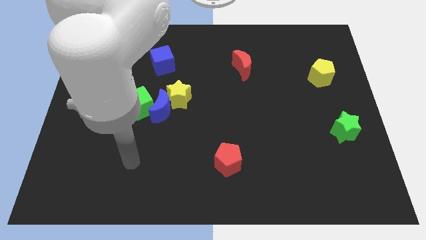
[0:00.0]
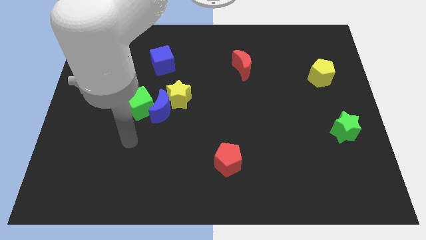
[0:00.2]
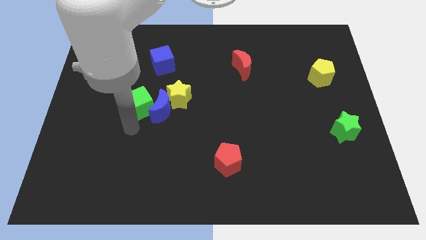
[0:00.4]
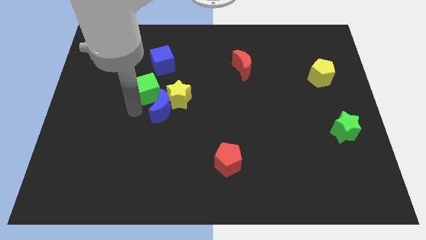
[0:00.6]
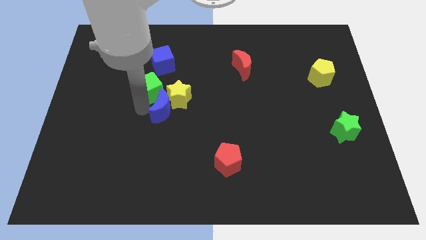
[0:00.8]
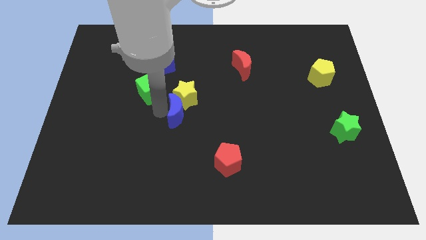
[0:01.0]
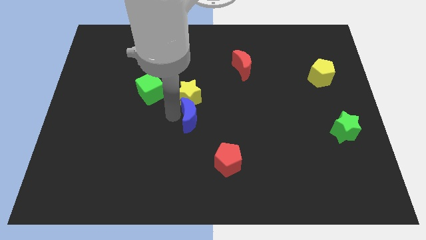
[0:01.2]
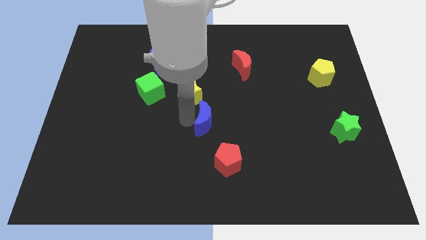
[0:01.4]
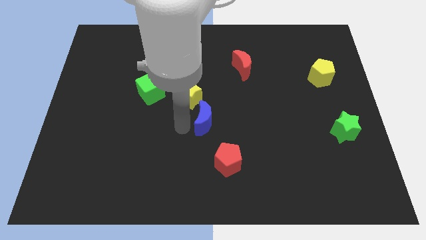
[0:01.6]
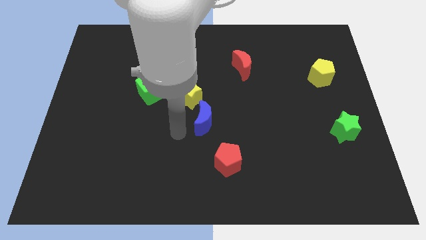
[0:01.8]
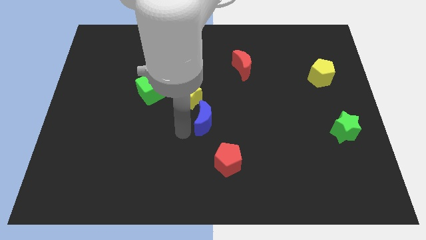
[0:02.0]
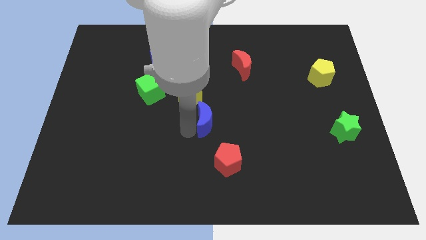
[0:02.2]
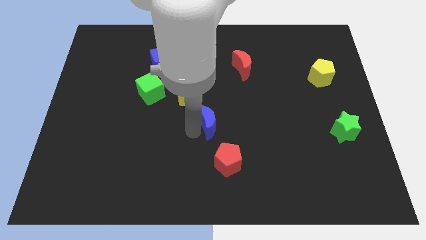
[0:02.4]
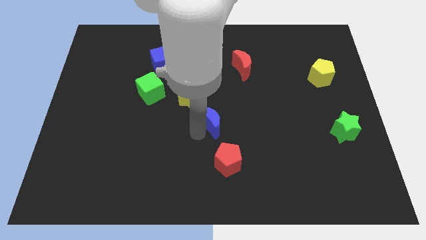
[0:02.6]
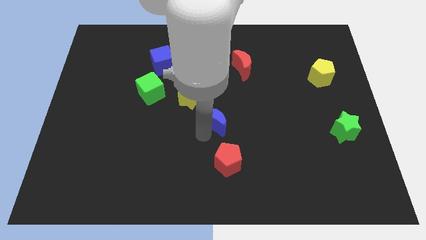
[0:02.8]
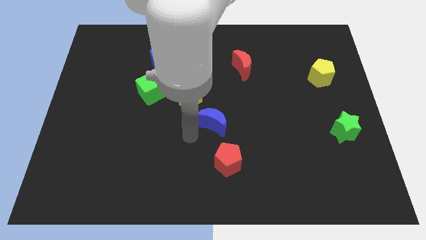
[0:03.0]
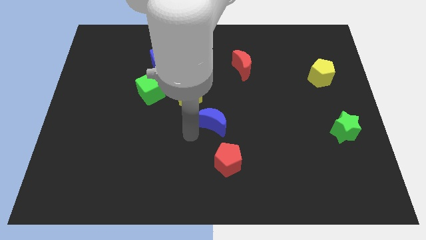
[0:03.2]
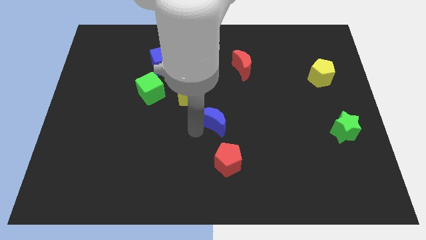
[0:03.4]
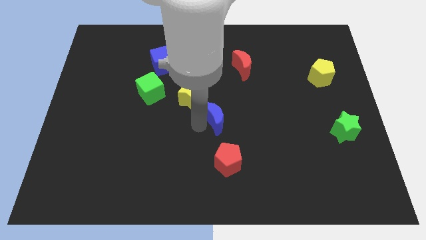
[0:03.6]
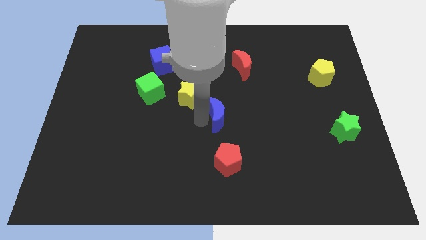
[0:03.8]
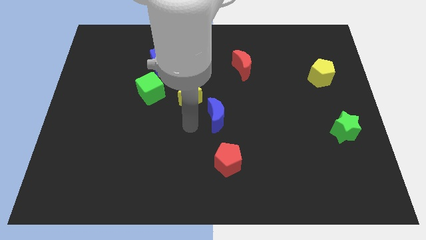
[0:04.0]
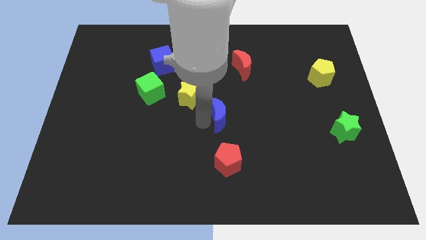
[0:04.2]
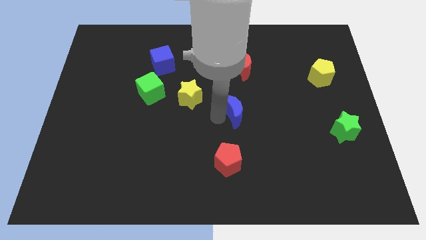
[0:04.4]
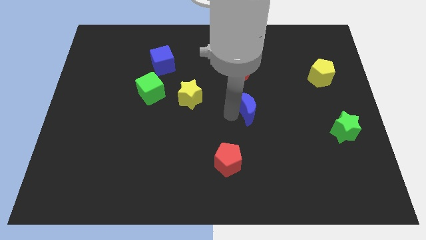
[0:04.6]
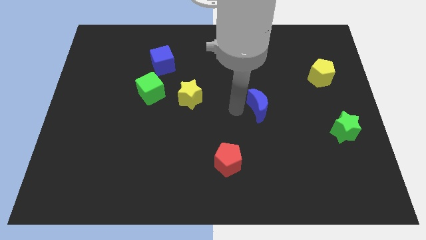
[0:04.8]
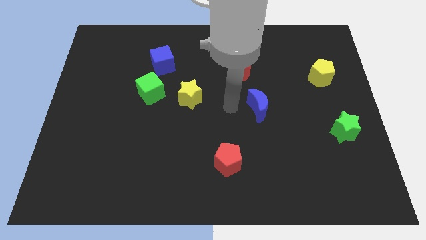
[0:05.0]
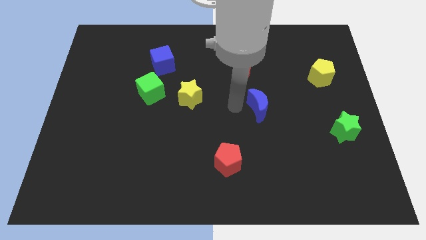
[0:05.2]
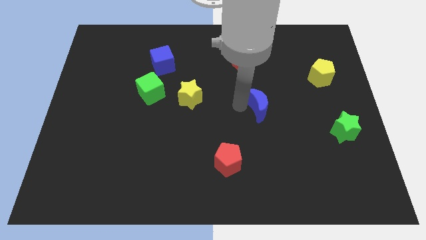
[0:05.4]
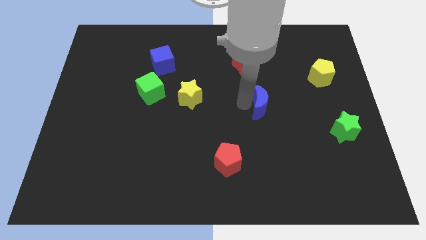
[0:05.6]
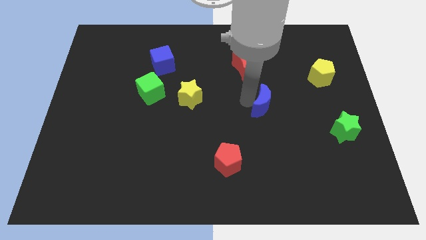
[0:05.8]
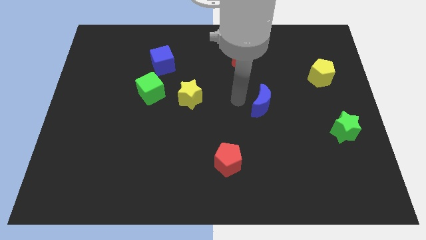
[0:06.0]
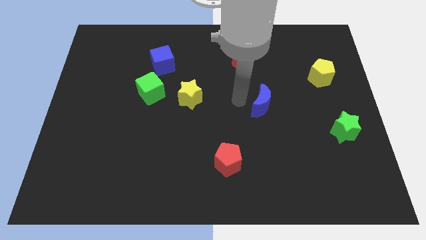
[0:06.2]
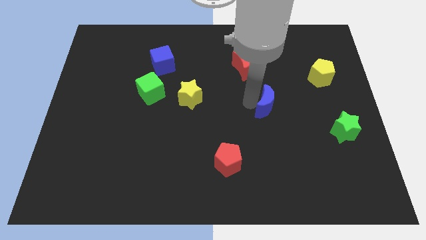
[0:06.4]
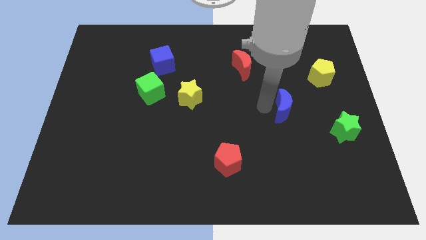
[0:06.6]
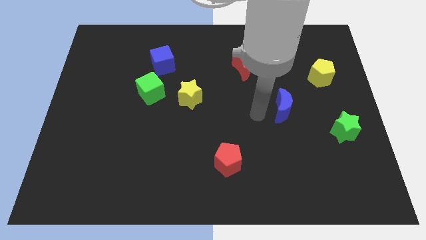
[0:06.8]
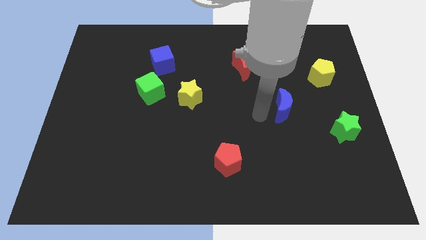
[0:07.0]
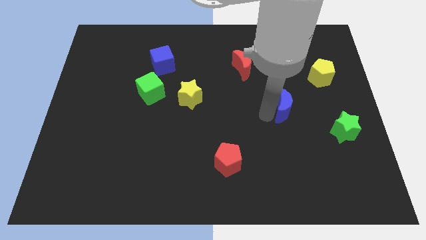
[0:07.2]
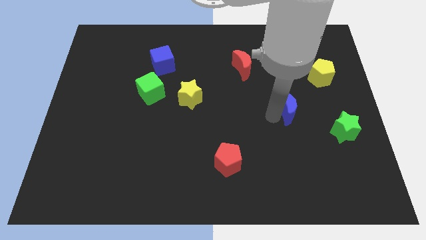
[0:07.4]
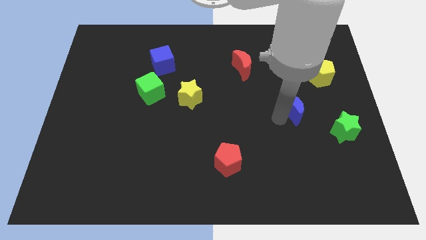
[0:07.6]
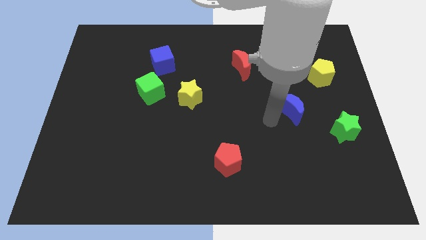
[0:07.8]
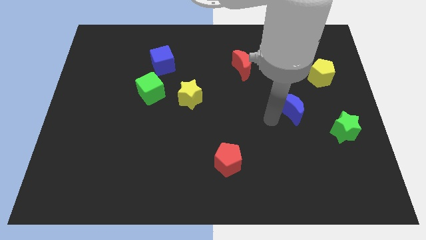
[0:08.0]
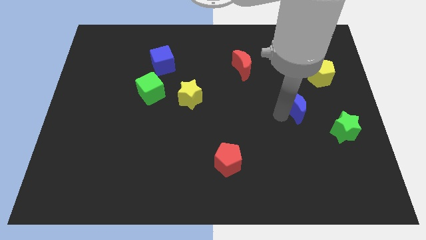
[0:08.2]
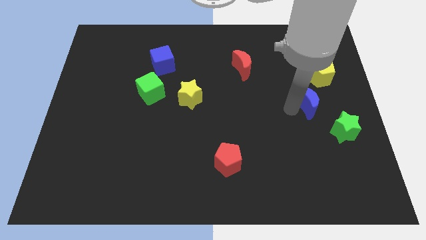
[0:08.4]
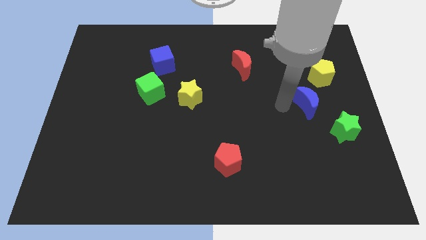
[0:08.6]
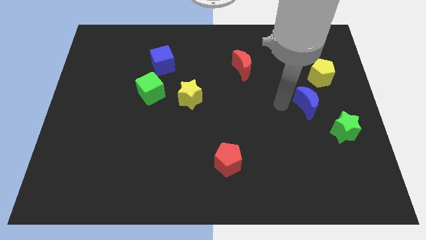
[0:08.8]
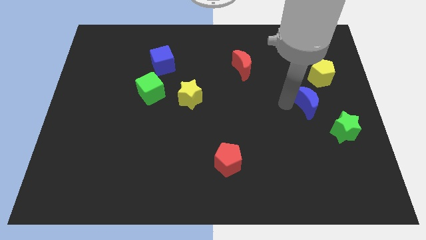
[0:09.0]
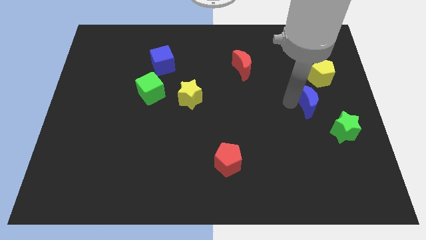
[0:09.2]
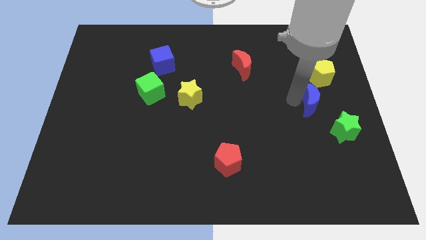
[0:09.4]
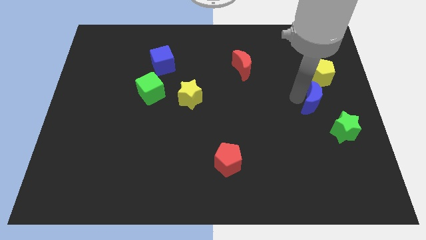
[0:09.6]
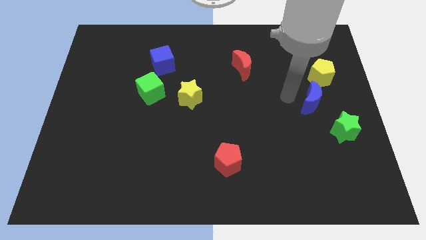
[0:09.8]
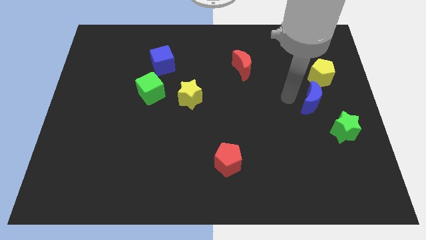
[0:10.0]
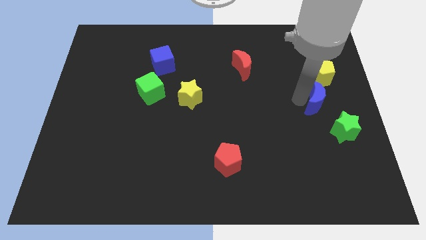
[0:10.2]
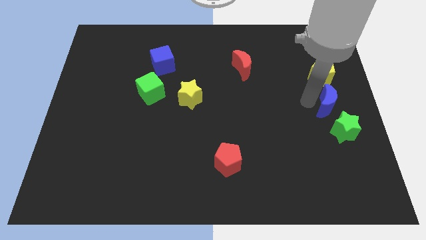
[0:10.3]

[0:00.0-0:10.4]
put the blue moon to the center right
